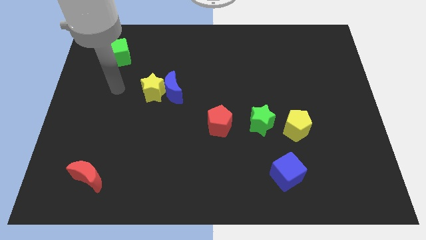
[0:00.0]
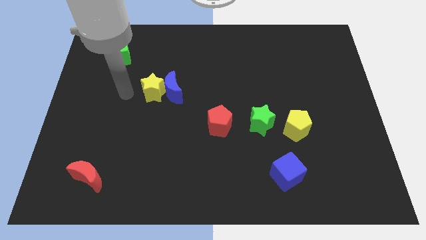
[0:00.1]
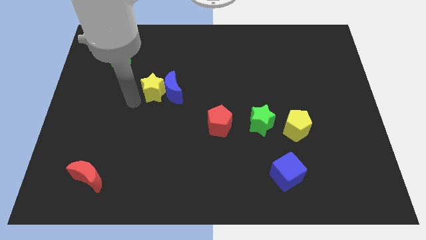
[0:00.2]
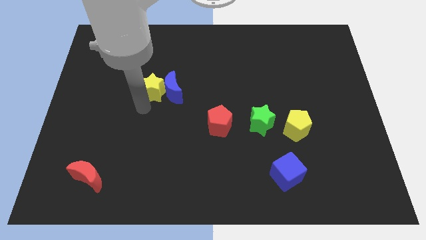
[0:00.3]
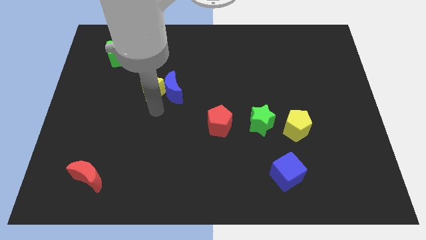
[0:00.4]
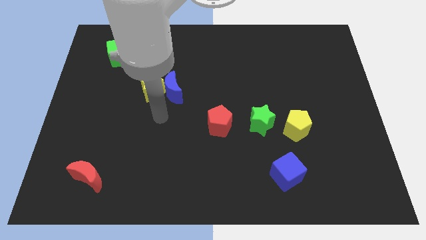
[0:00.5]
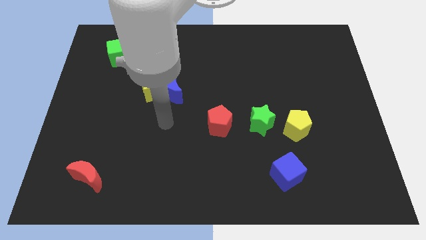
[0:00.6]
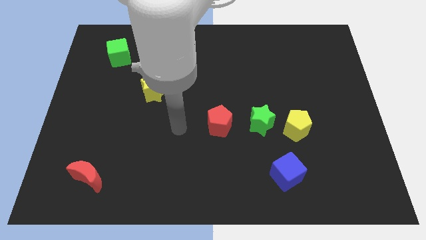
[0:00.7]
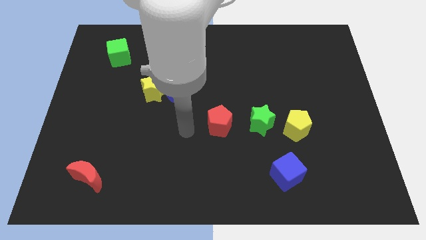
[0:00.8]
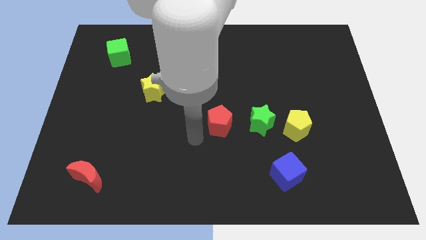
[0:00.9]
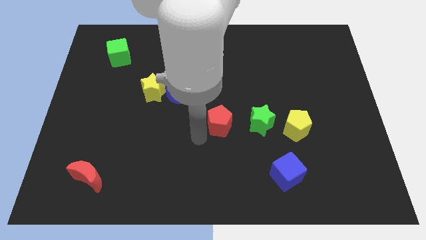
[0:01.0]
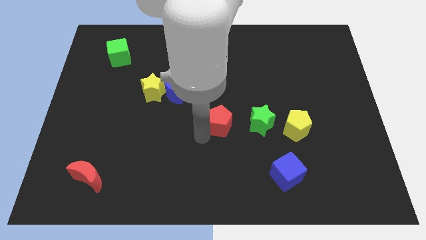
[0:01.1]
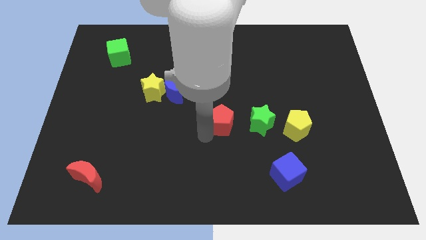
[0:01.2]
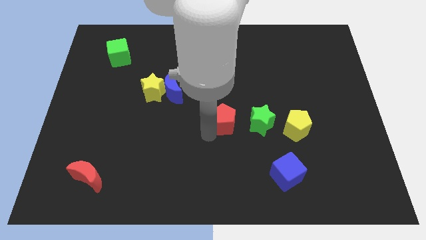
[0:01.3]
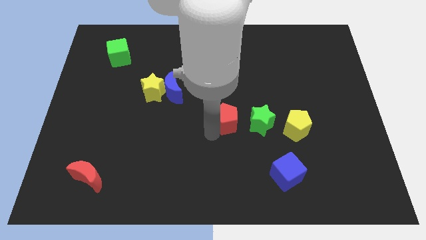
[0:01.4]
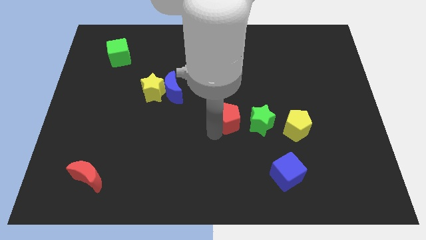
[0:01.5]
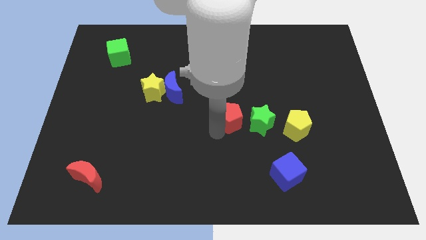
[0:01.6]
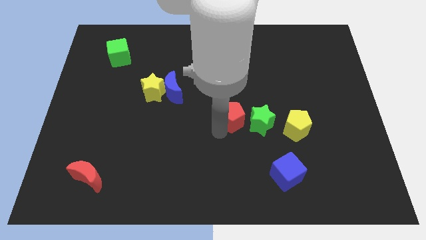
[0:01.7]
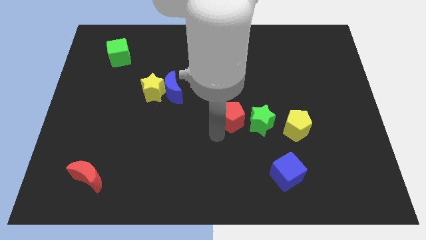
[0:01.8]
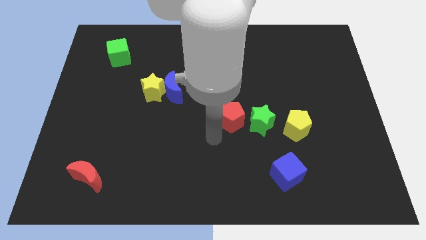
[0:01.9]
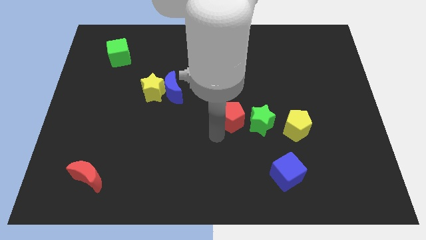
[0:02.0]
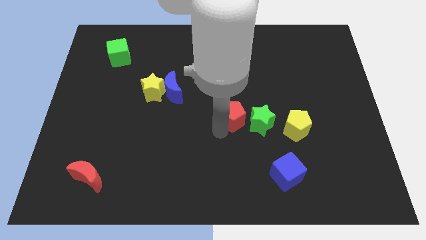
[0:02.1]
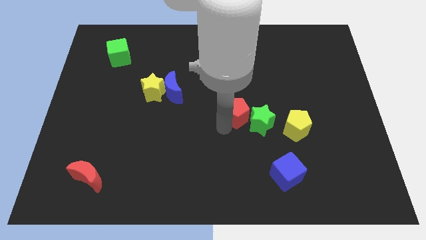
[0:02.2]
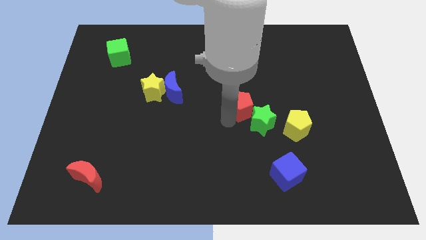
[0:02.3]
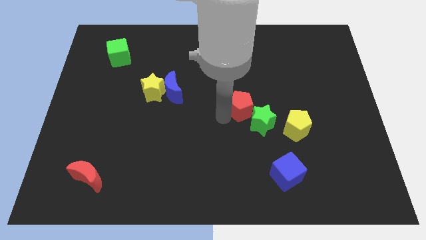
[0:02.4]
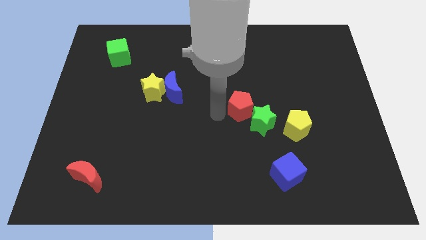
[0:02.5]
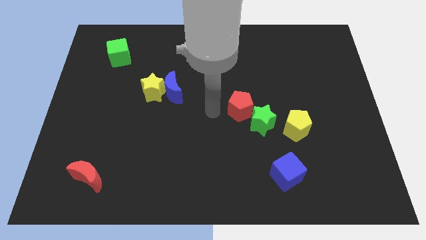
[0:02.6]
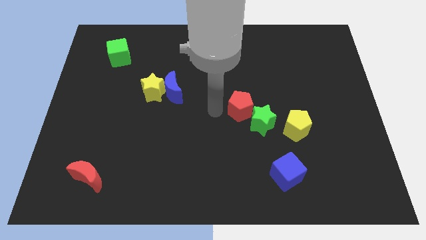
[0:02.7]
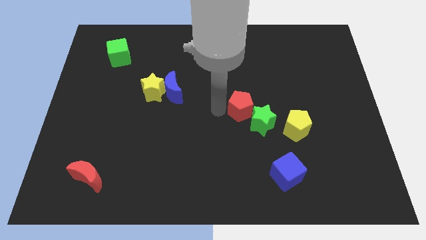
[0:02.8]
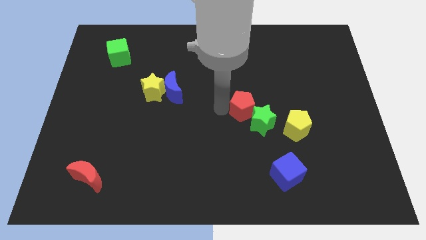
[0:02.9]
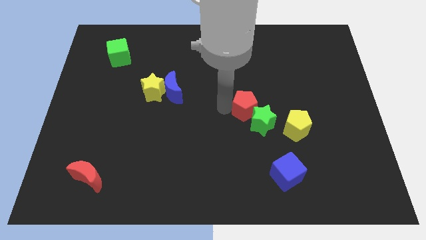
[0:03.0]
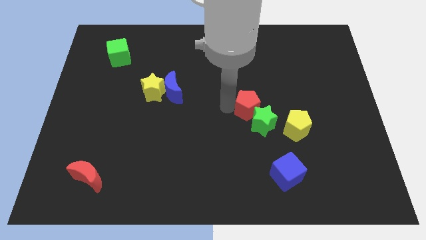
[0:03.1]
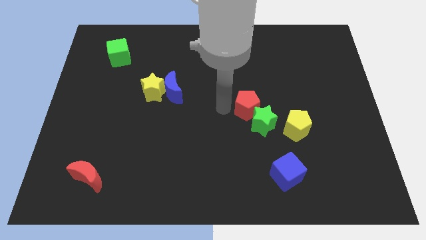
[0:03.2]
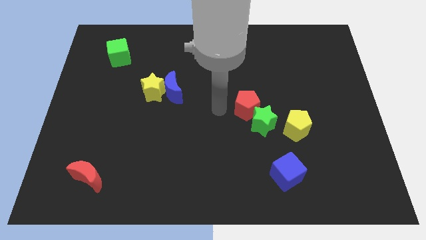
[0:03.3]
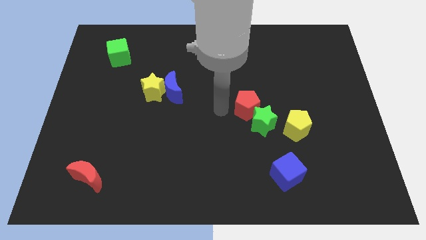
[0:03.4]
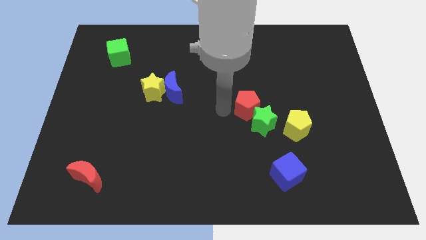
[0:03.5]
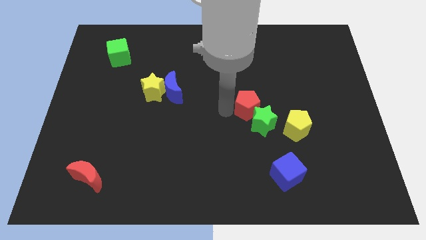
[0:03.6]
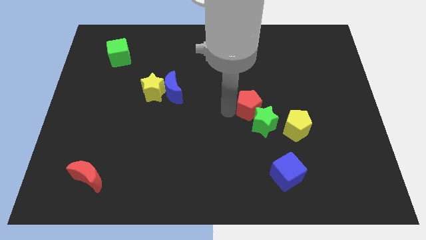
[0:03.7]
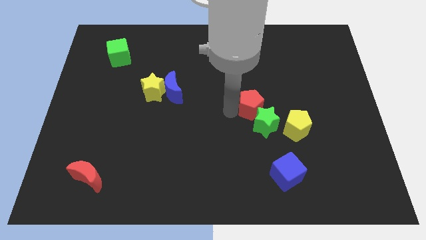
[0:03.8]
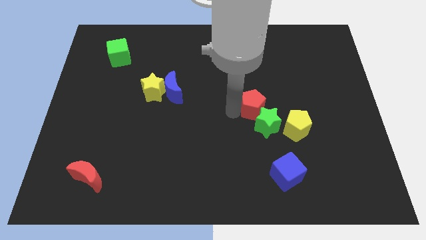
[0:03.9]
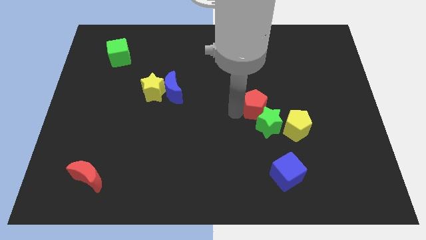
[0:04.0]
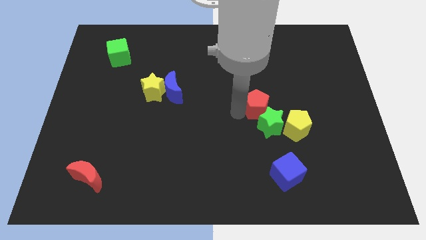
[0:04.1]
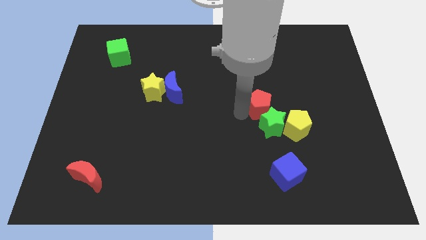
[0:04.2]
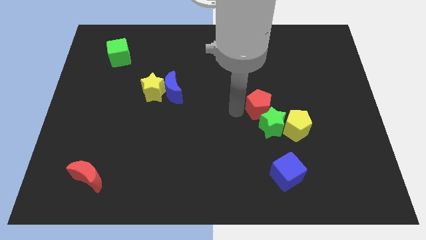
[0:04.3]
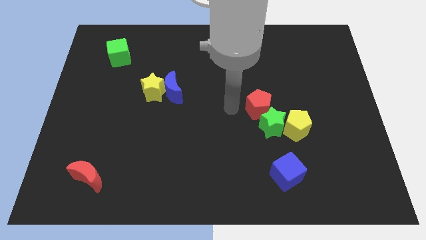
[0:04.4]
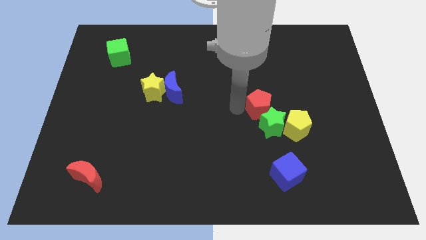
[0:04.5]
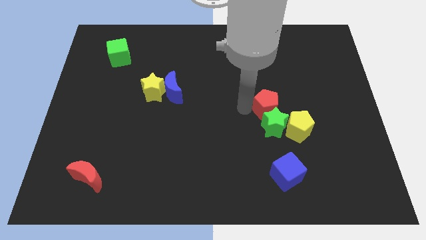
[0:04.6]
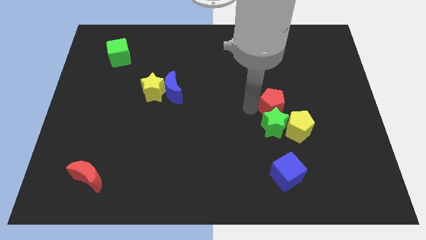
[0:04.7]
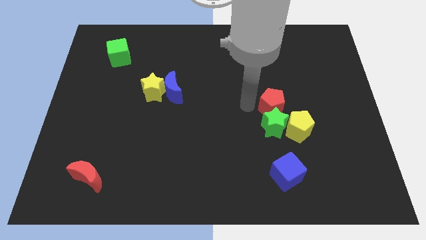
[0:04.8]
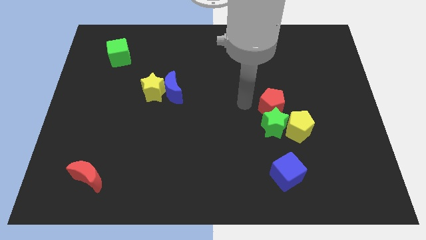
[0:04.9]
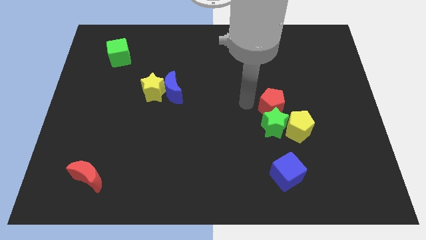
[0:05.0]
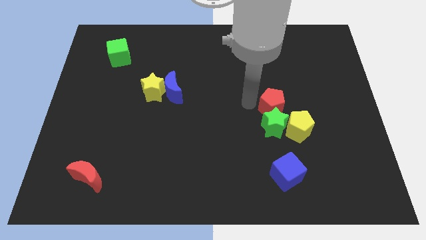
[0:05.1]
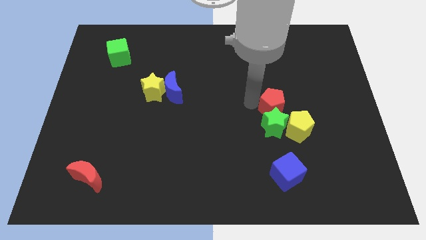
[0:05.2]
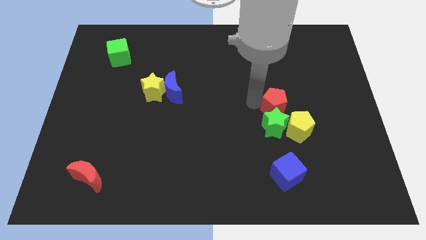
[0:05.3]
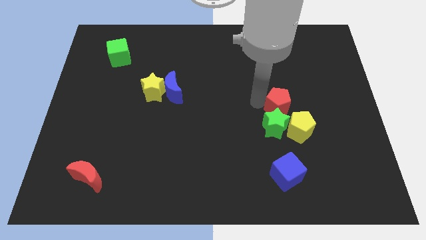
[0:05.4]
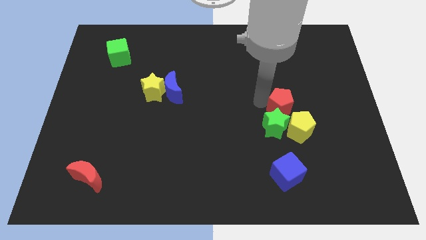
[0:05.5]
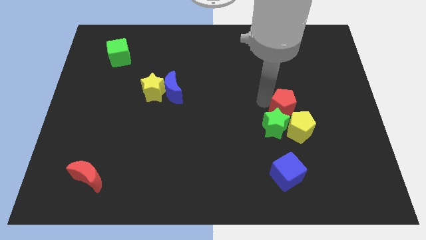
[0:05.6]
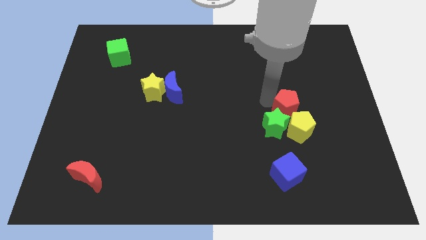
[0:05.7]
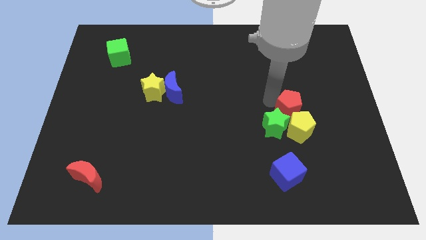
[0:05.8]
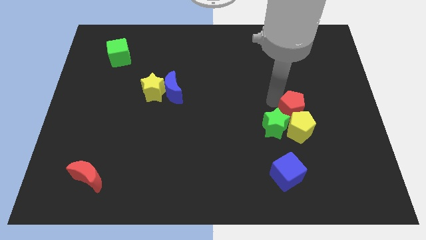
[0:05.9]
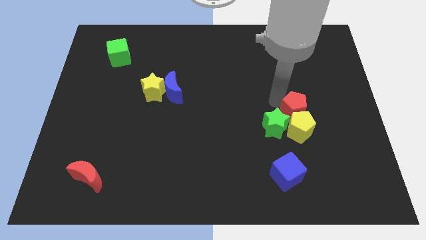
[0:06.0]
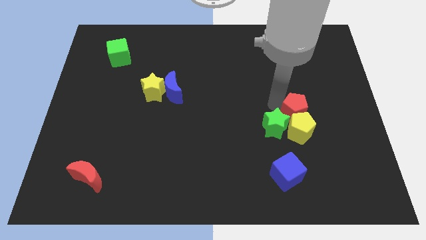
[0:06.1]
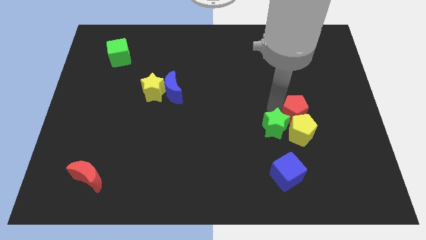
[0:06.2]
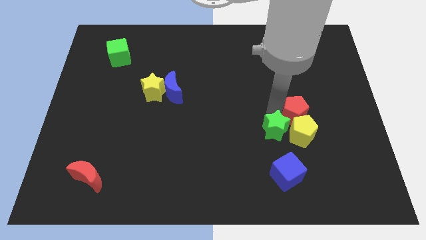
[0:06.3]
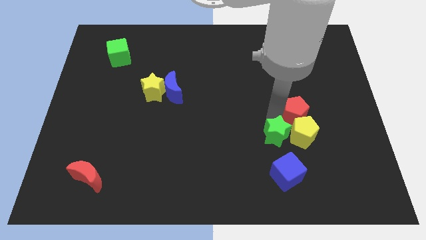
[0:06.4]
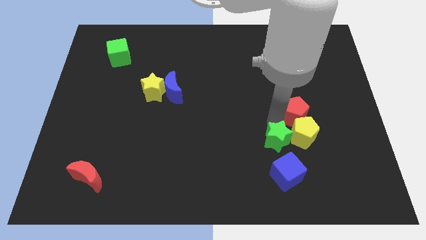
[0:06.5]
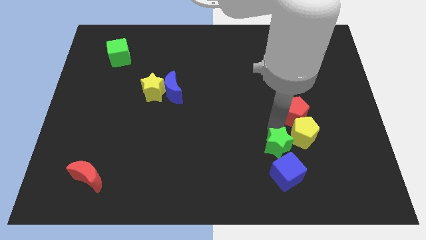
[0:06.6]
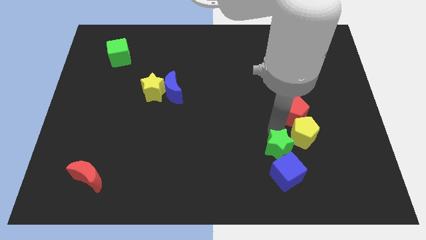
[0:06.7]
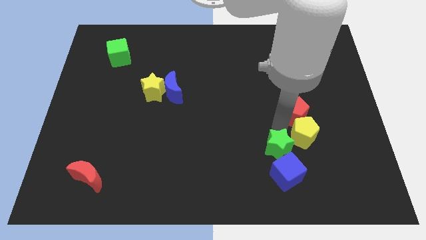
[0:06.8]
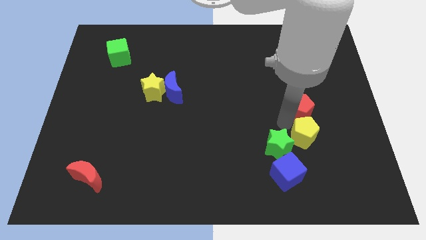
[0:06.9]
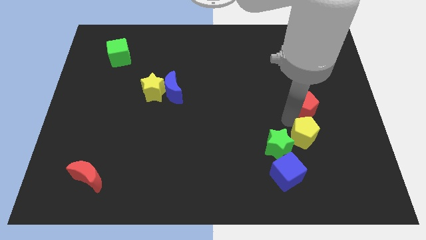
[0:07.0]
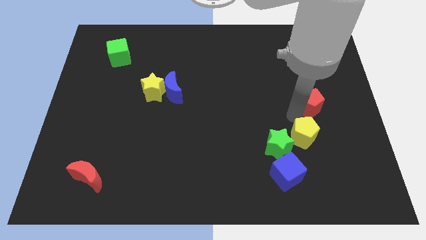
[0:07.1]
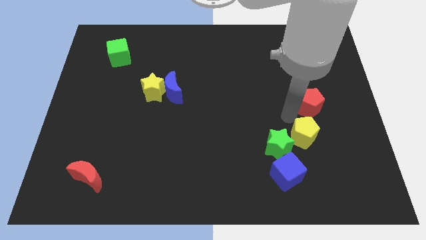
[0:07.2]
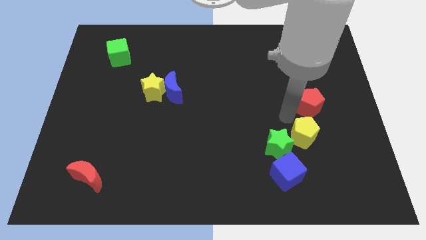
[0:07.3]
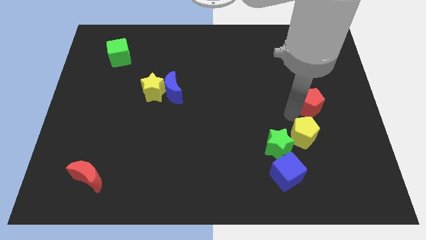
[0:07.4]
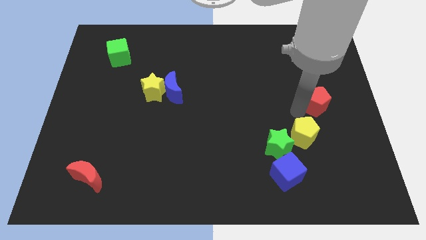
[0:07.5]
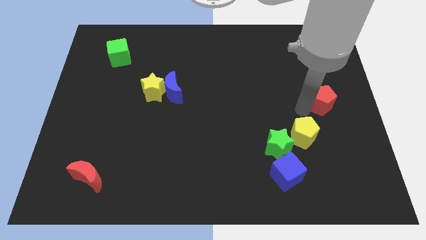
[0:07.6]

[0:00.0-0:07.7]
slide the red pentagon to the center right
